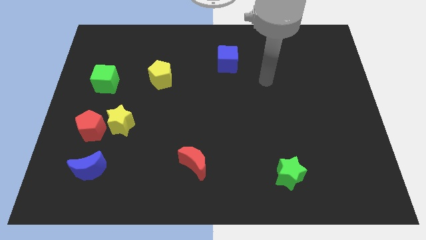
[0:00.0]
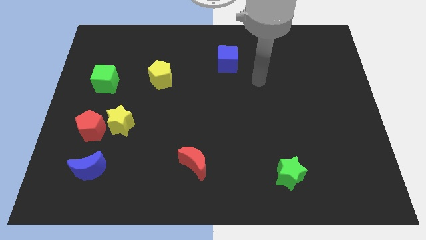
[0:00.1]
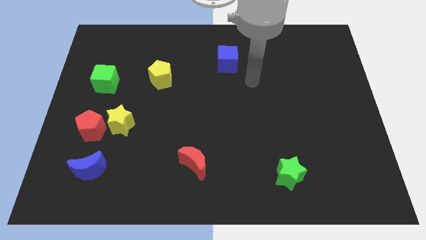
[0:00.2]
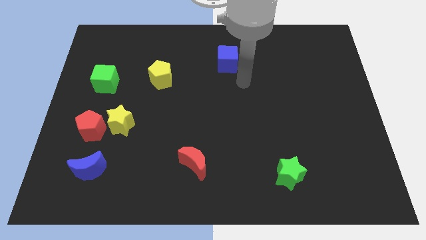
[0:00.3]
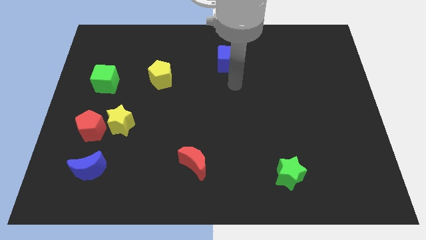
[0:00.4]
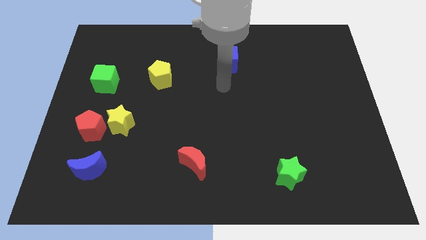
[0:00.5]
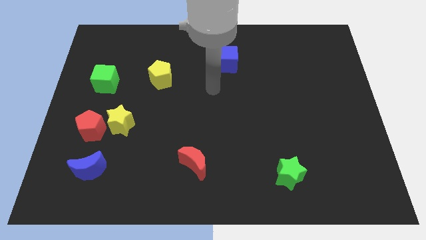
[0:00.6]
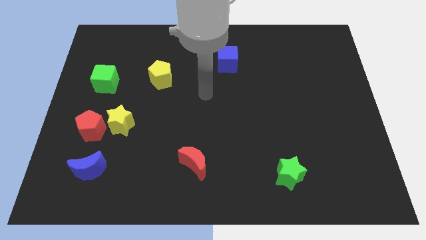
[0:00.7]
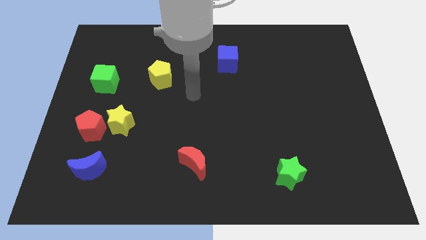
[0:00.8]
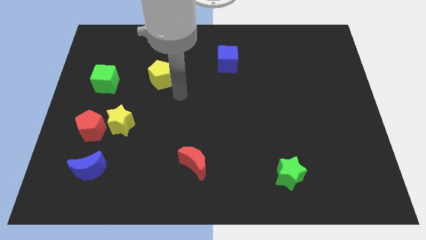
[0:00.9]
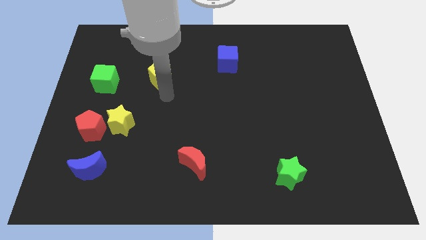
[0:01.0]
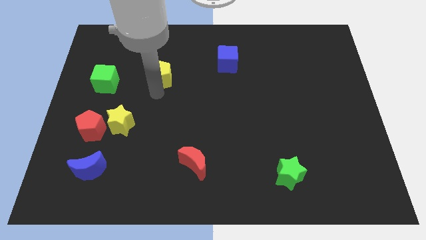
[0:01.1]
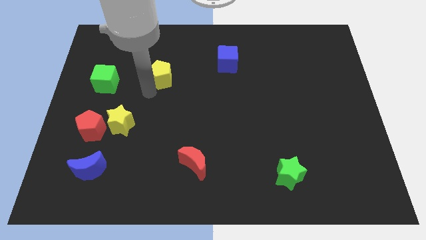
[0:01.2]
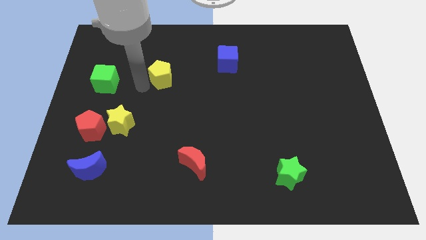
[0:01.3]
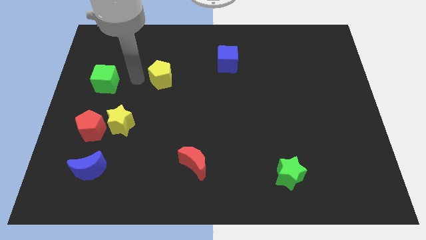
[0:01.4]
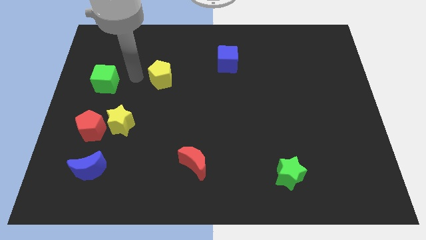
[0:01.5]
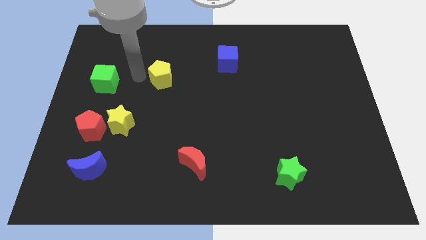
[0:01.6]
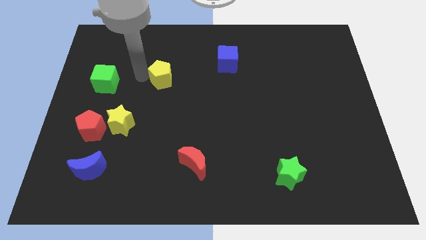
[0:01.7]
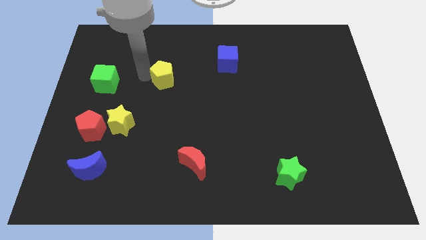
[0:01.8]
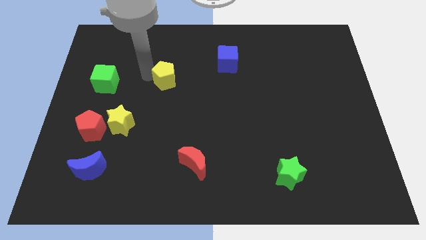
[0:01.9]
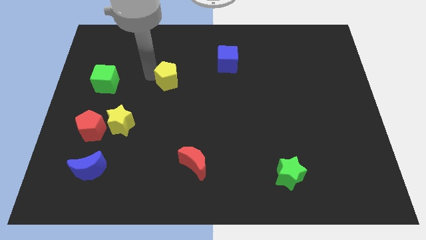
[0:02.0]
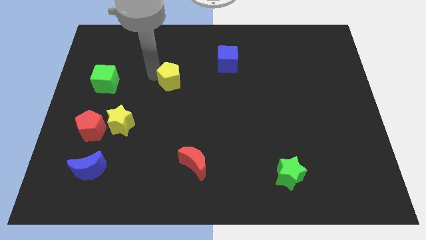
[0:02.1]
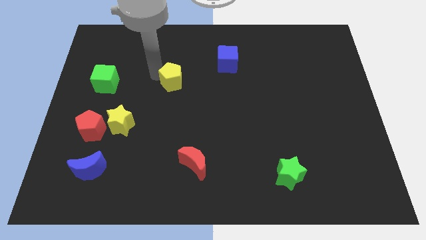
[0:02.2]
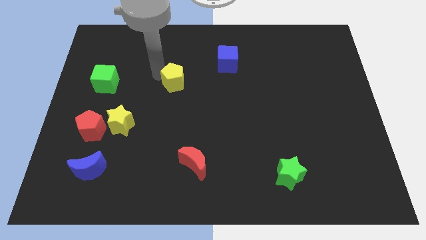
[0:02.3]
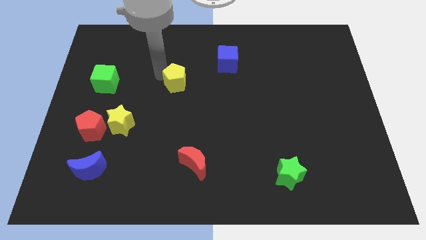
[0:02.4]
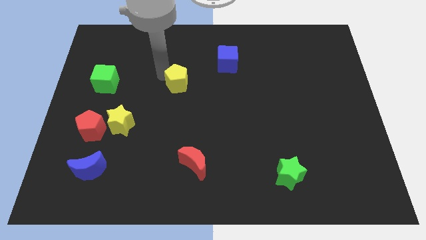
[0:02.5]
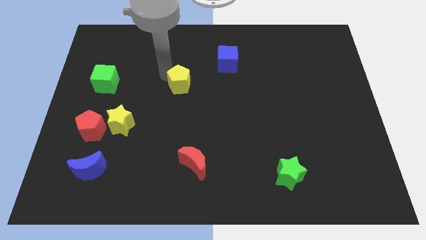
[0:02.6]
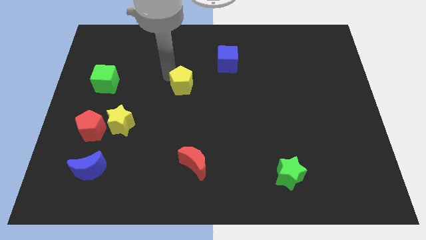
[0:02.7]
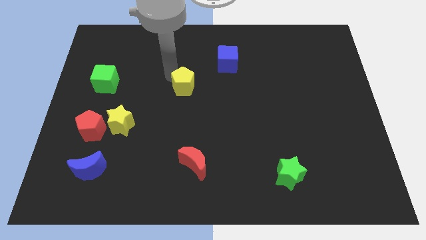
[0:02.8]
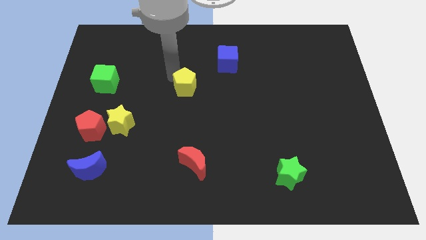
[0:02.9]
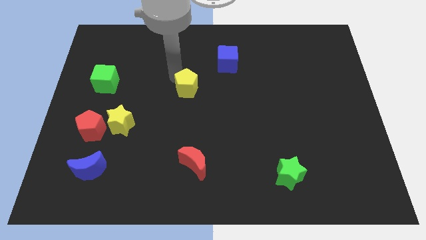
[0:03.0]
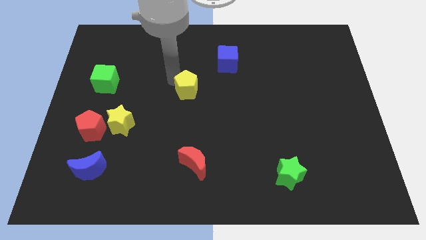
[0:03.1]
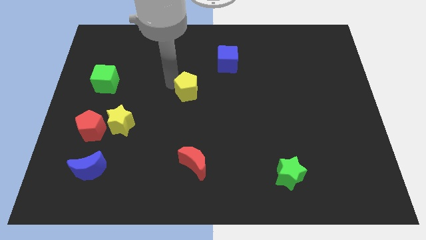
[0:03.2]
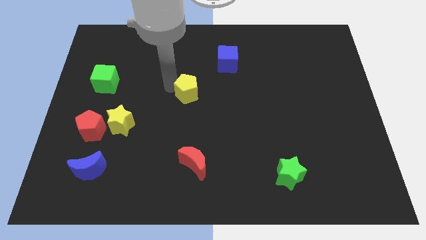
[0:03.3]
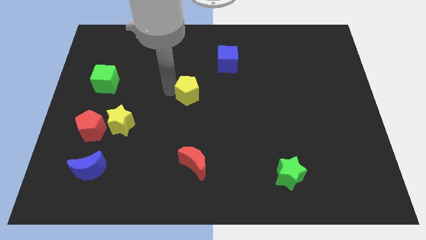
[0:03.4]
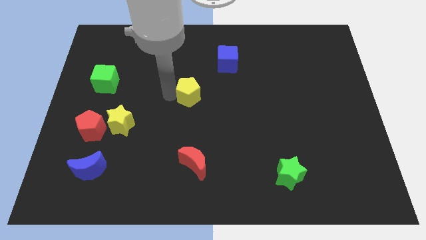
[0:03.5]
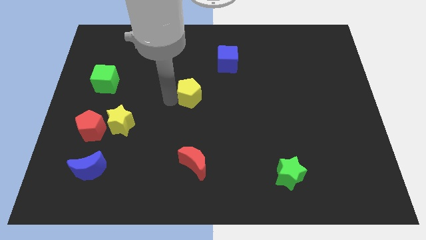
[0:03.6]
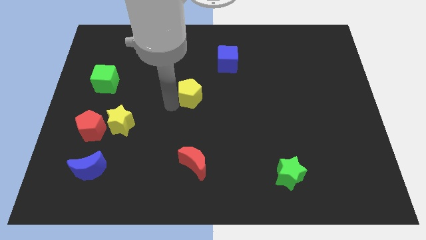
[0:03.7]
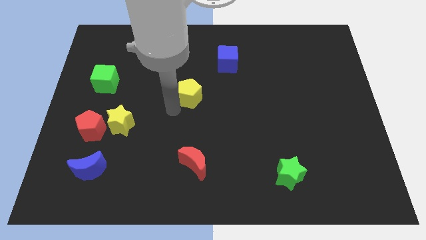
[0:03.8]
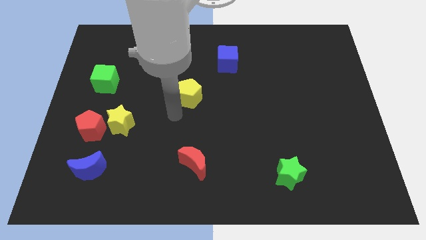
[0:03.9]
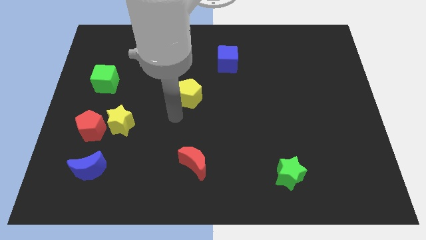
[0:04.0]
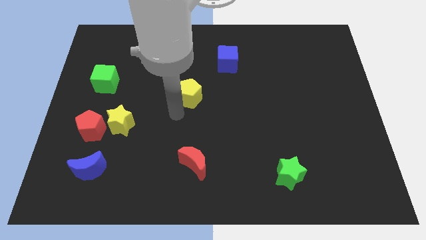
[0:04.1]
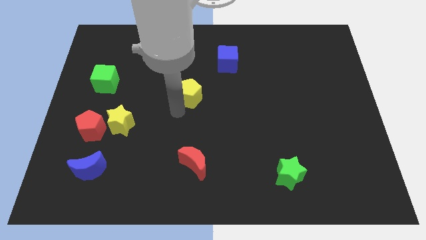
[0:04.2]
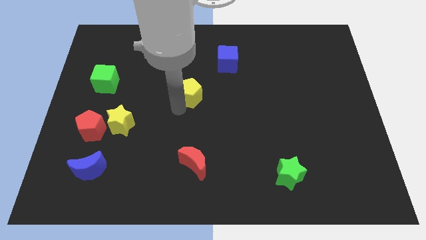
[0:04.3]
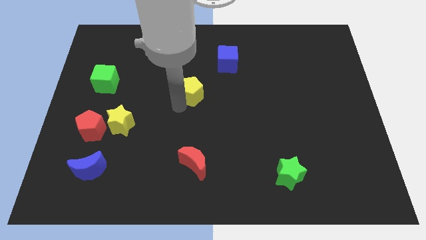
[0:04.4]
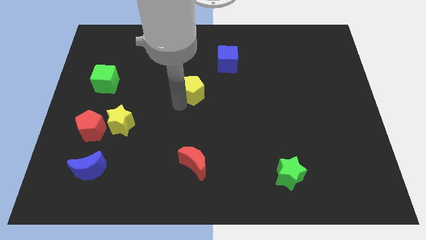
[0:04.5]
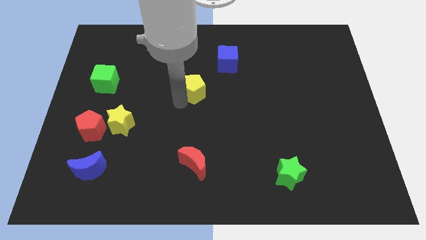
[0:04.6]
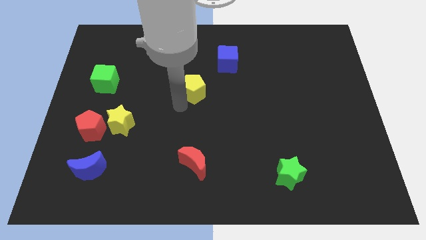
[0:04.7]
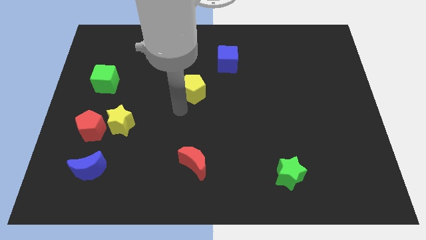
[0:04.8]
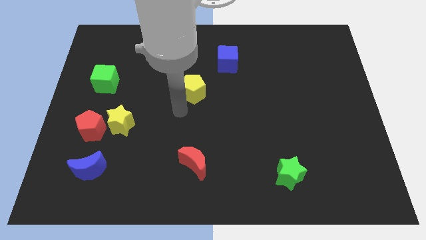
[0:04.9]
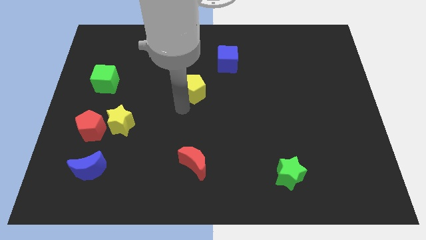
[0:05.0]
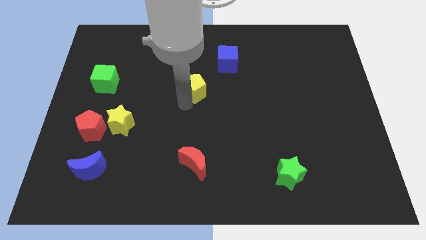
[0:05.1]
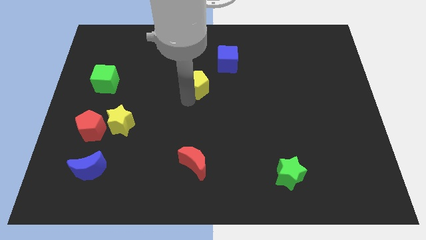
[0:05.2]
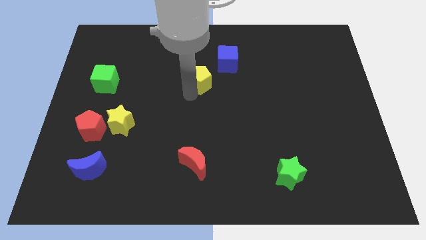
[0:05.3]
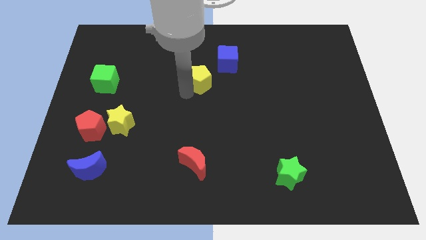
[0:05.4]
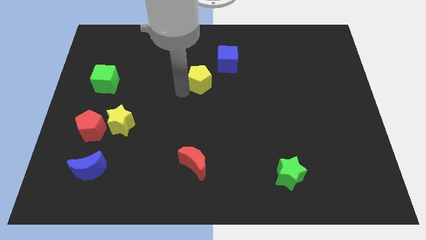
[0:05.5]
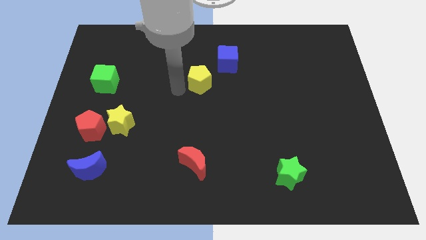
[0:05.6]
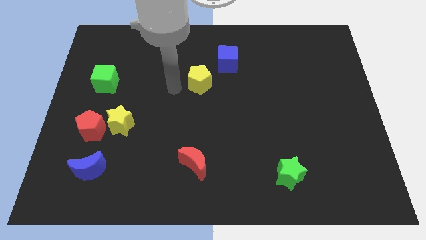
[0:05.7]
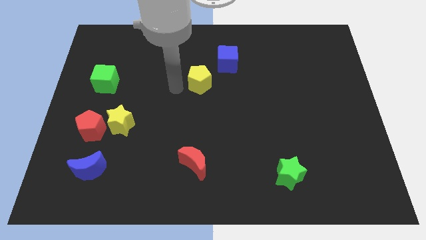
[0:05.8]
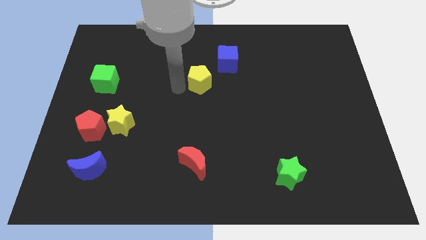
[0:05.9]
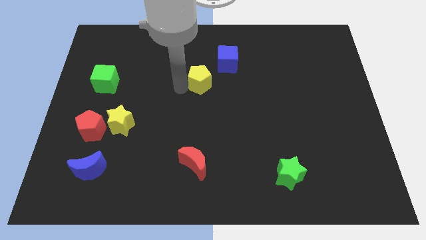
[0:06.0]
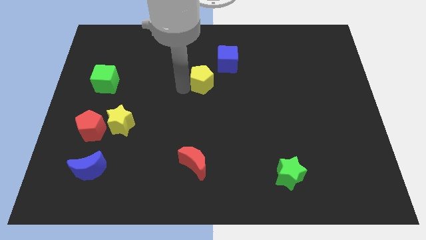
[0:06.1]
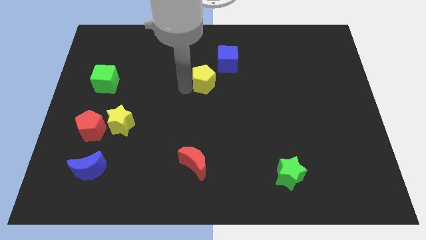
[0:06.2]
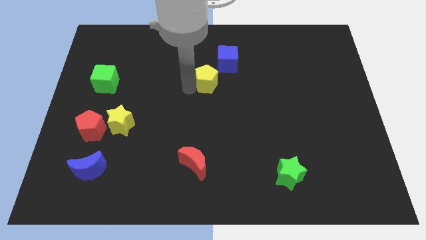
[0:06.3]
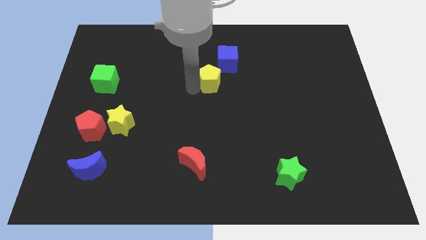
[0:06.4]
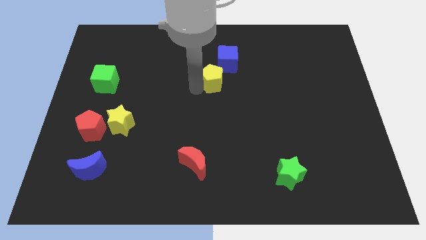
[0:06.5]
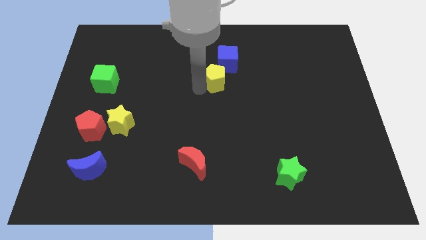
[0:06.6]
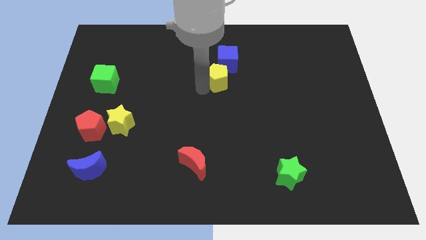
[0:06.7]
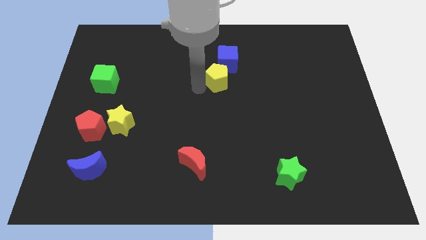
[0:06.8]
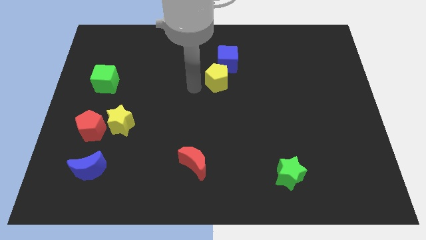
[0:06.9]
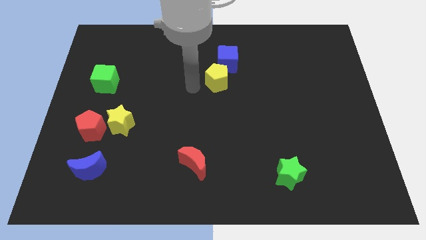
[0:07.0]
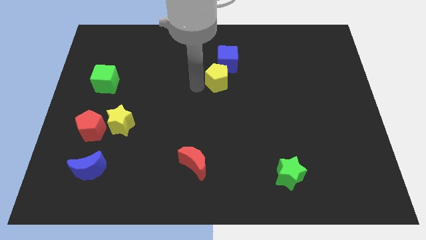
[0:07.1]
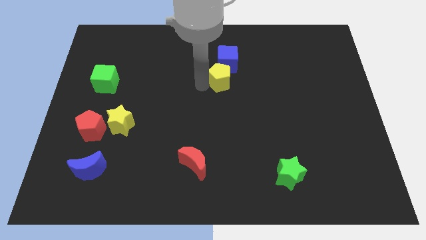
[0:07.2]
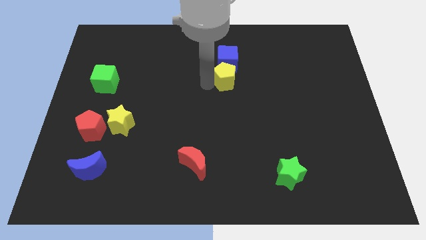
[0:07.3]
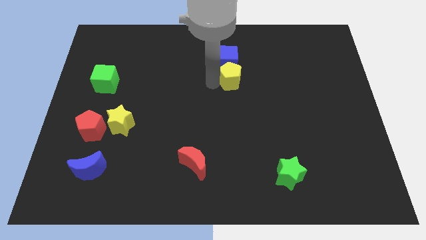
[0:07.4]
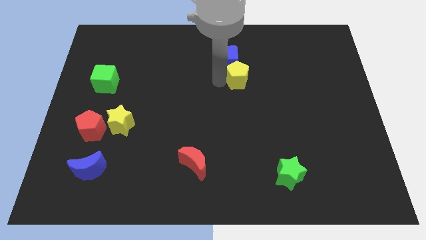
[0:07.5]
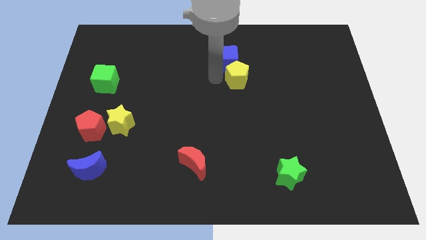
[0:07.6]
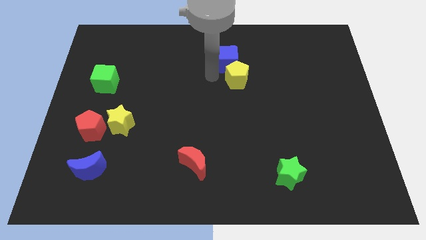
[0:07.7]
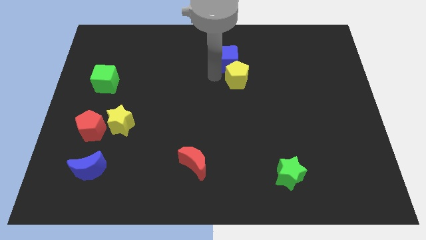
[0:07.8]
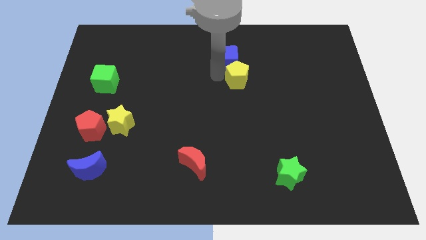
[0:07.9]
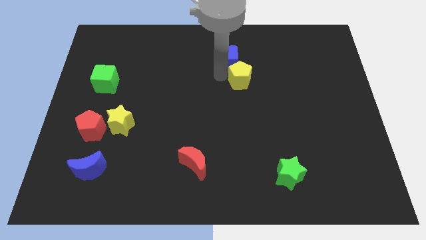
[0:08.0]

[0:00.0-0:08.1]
move the yellow pentagon right
